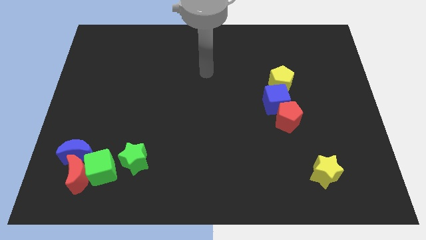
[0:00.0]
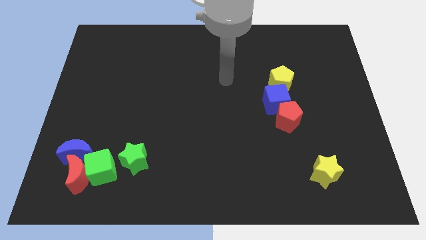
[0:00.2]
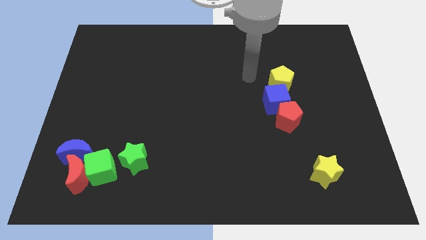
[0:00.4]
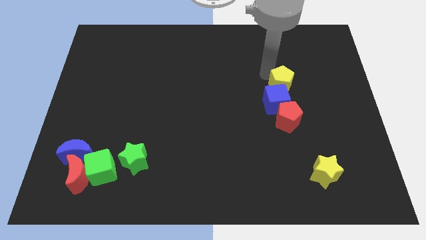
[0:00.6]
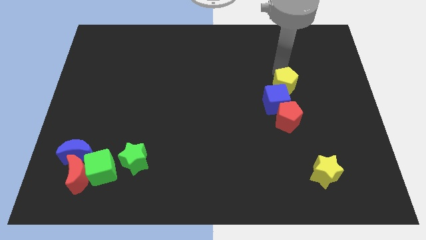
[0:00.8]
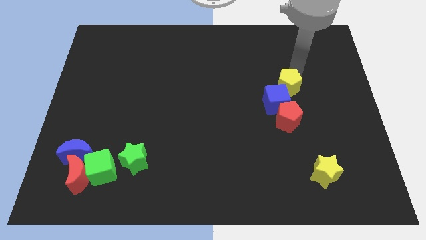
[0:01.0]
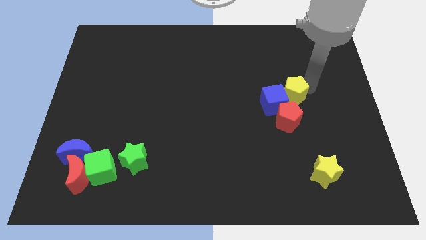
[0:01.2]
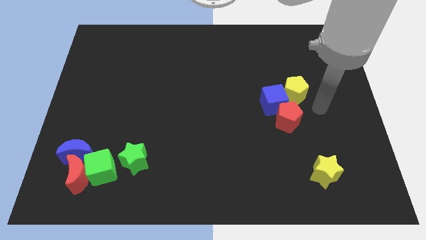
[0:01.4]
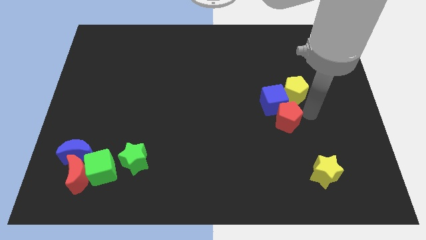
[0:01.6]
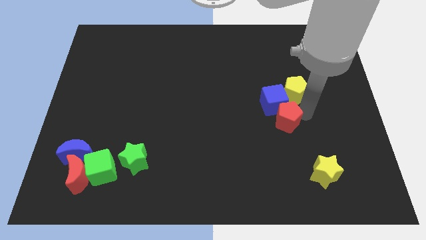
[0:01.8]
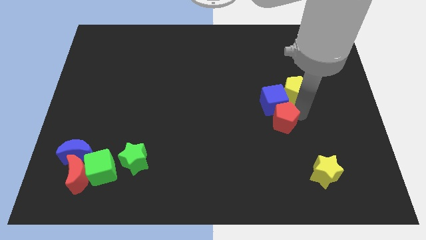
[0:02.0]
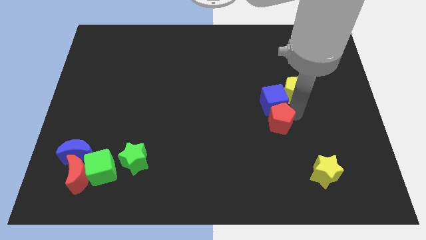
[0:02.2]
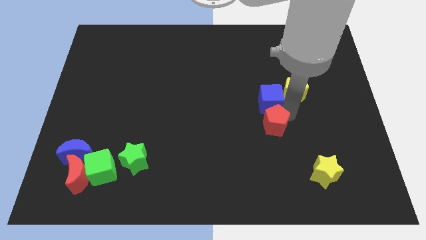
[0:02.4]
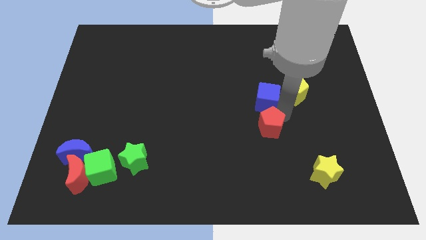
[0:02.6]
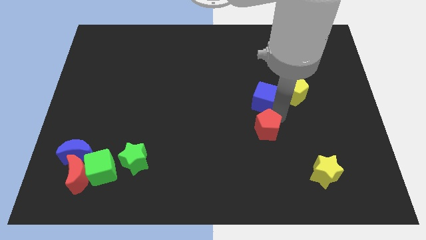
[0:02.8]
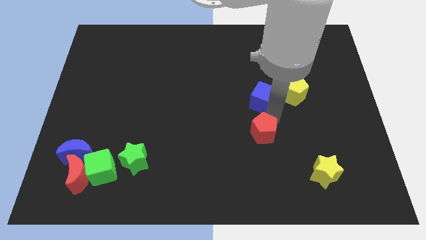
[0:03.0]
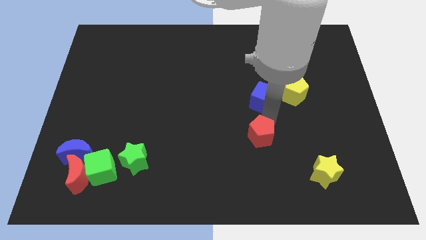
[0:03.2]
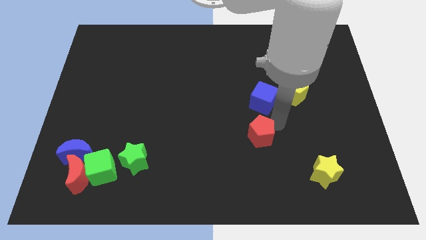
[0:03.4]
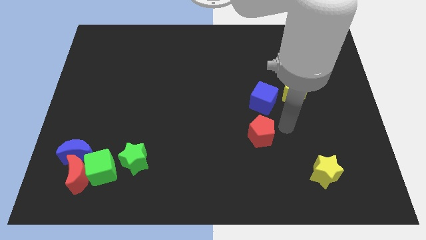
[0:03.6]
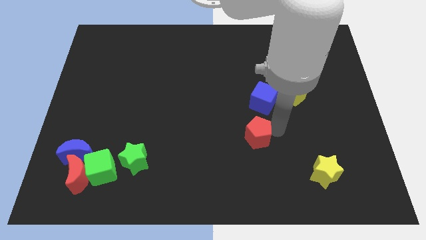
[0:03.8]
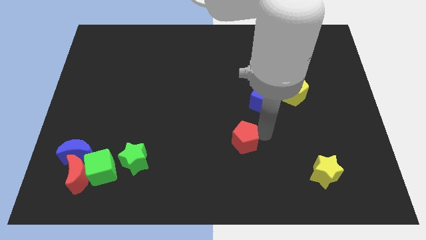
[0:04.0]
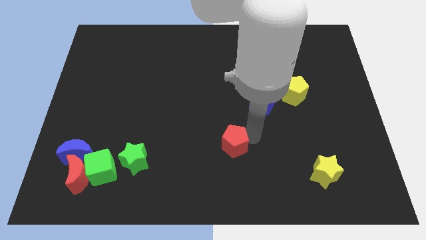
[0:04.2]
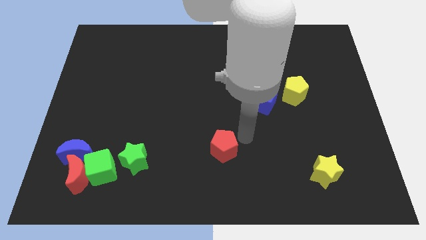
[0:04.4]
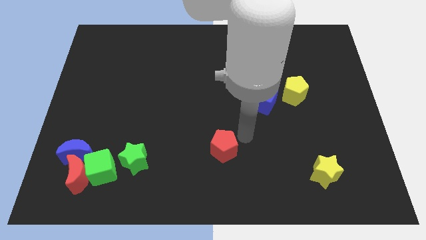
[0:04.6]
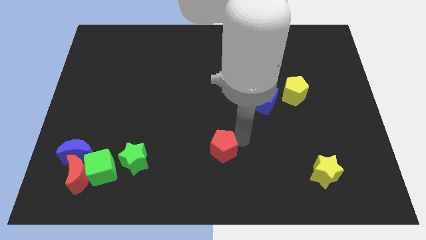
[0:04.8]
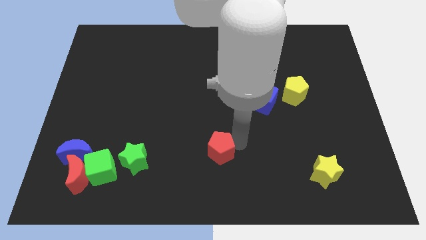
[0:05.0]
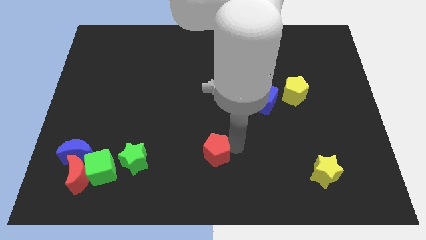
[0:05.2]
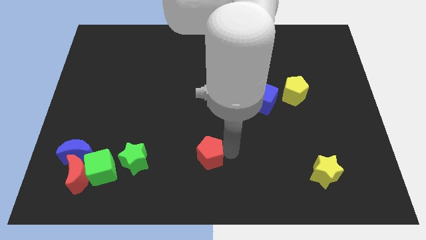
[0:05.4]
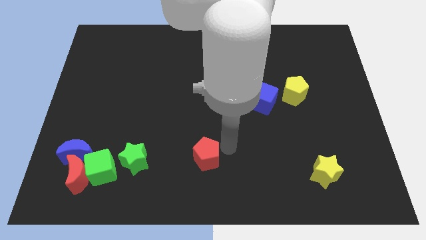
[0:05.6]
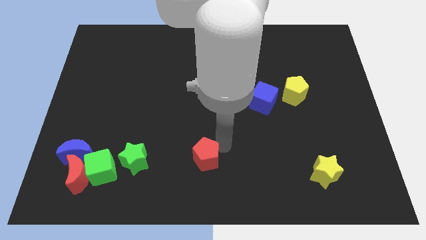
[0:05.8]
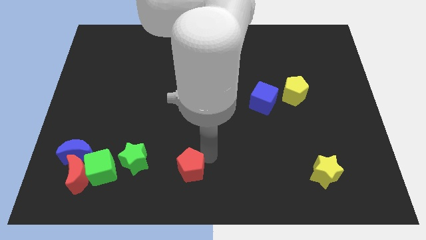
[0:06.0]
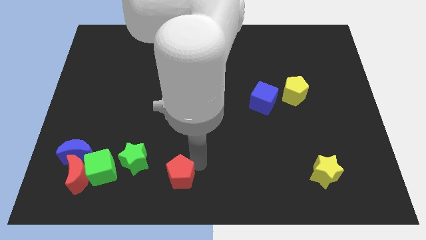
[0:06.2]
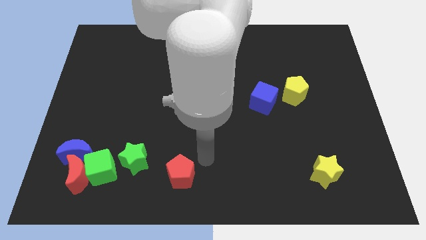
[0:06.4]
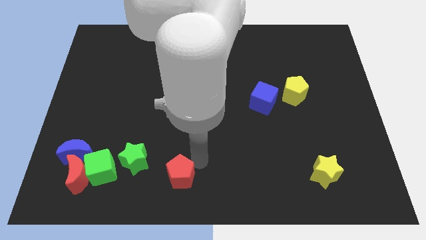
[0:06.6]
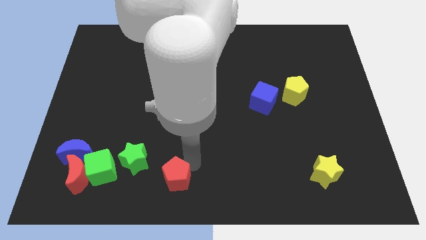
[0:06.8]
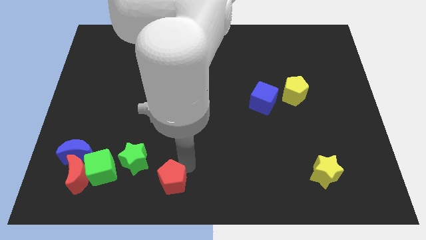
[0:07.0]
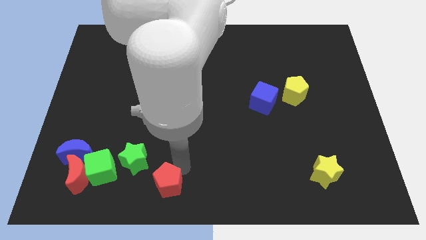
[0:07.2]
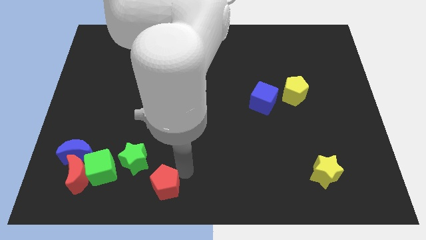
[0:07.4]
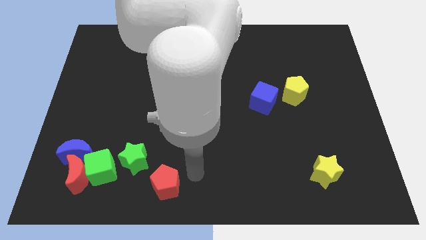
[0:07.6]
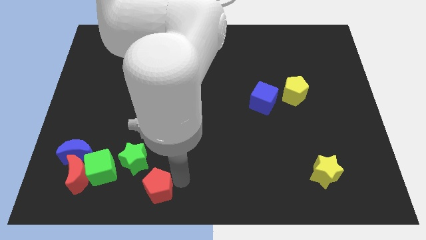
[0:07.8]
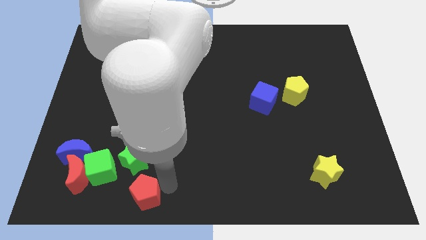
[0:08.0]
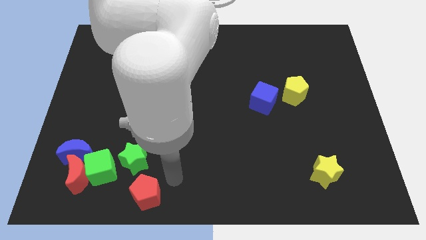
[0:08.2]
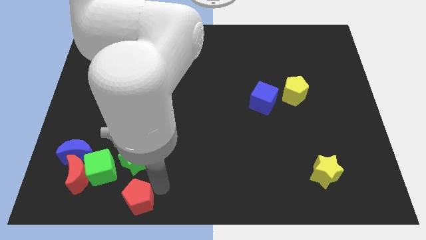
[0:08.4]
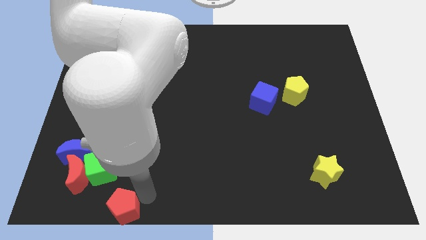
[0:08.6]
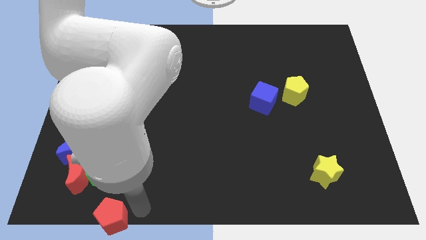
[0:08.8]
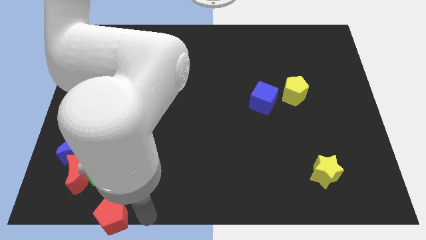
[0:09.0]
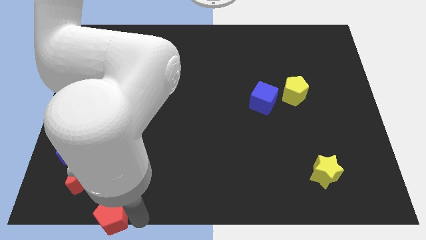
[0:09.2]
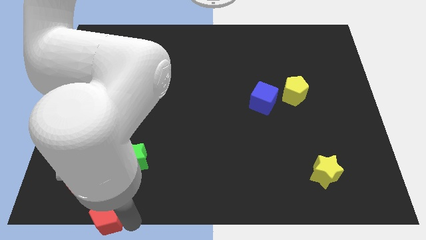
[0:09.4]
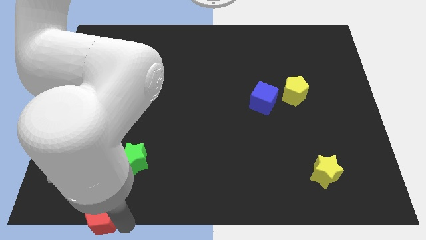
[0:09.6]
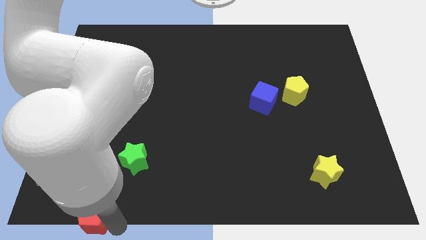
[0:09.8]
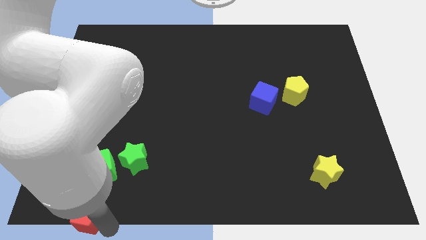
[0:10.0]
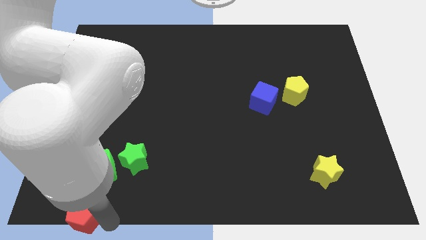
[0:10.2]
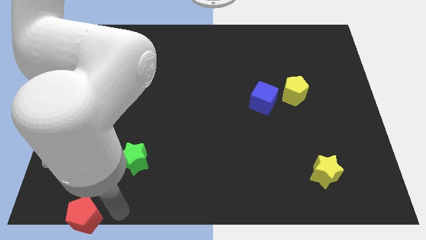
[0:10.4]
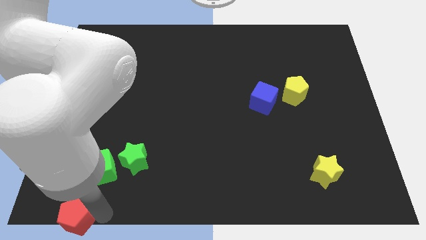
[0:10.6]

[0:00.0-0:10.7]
move the red pentagon to the bottom left of the board

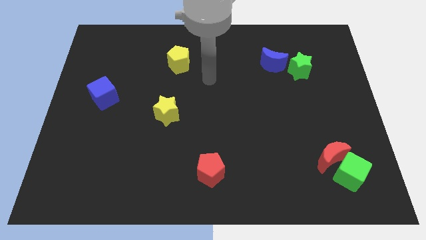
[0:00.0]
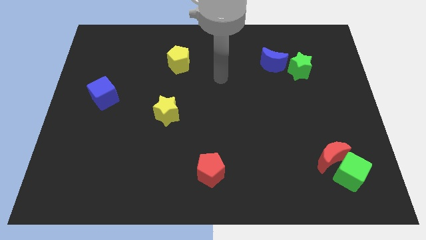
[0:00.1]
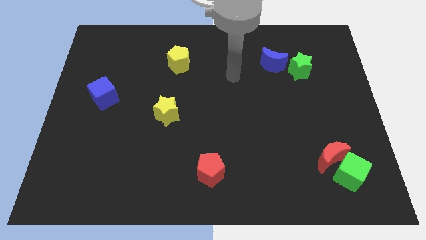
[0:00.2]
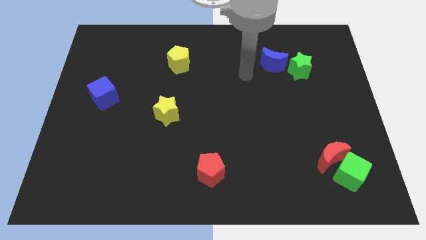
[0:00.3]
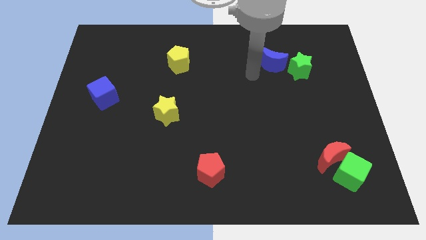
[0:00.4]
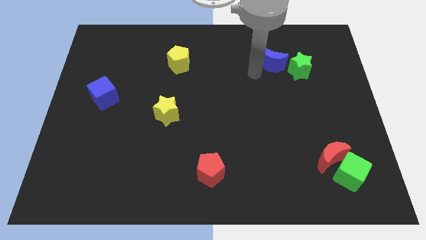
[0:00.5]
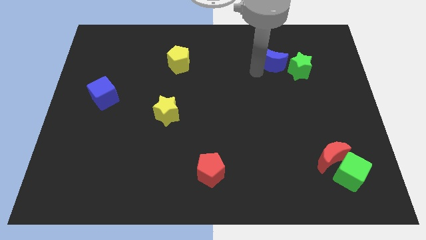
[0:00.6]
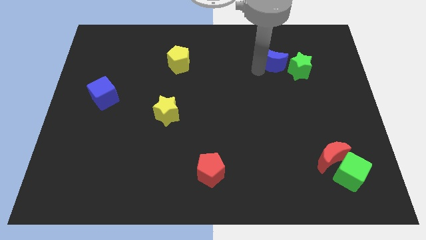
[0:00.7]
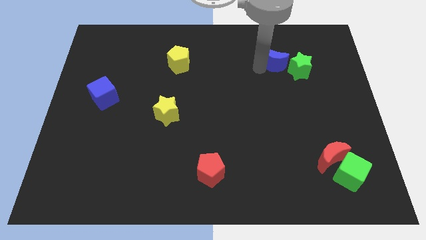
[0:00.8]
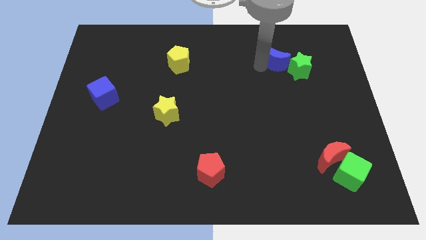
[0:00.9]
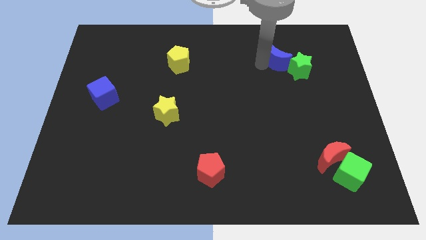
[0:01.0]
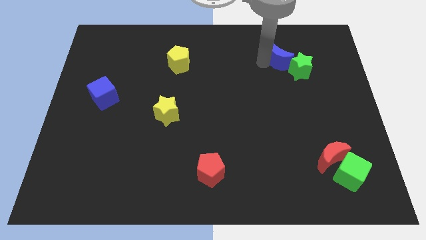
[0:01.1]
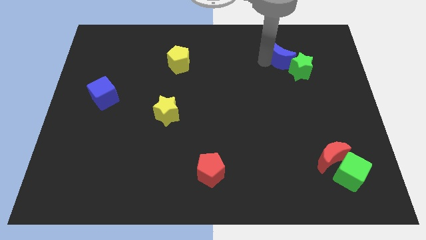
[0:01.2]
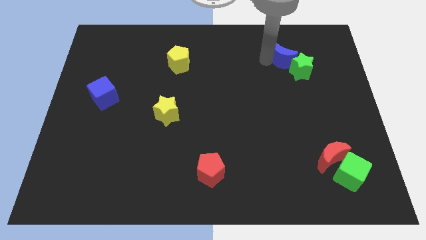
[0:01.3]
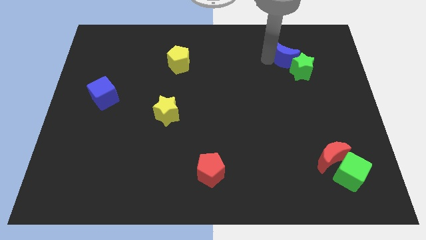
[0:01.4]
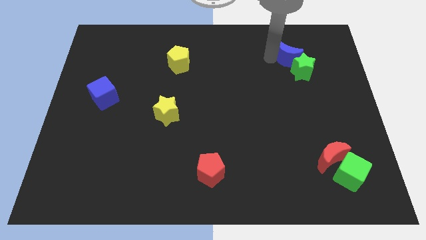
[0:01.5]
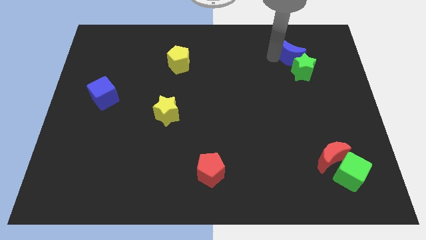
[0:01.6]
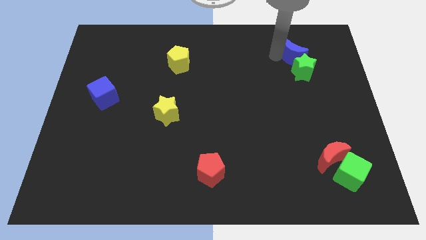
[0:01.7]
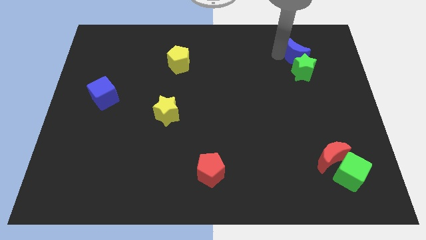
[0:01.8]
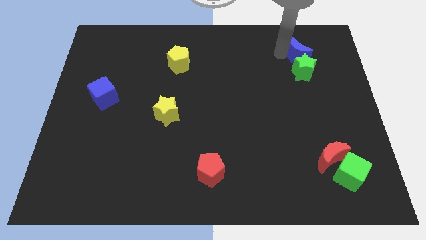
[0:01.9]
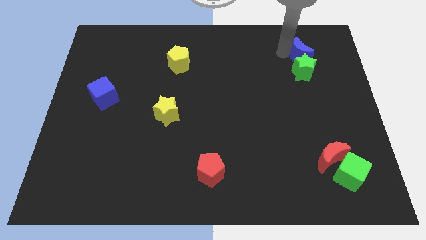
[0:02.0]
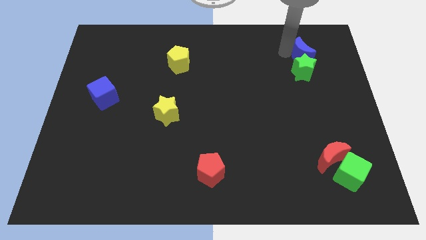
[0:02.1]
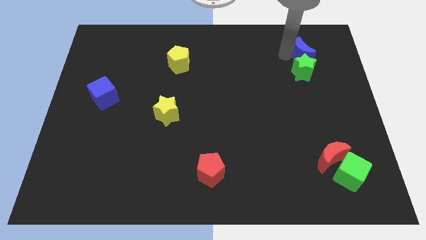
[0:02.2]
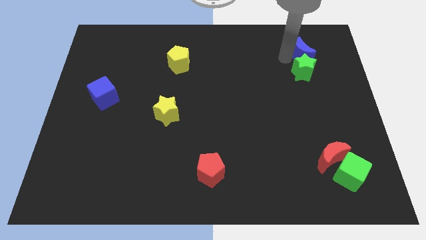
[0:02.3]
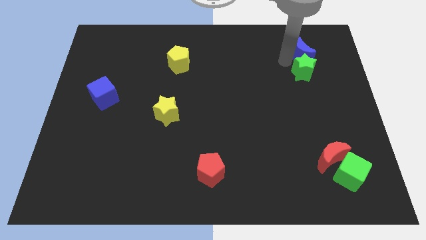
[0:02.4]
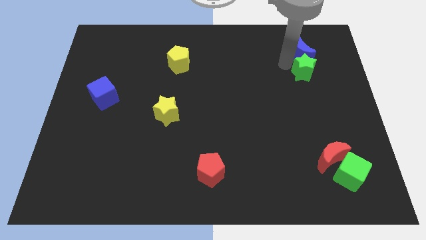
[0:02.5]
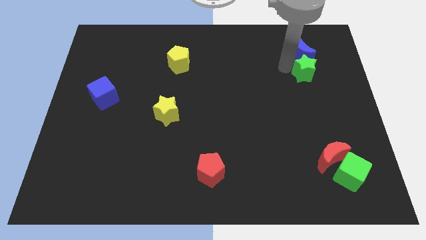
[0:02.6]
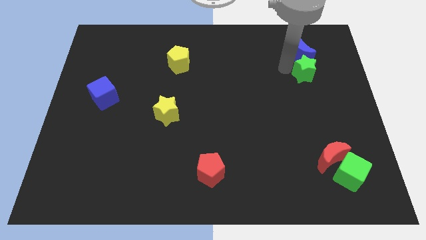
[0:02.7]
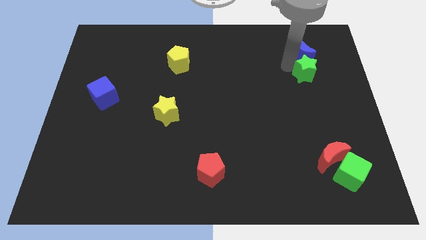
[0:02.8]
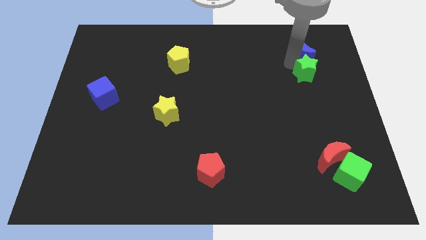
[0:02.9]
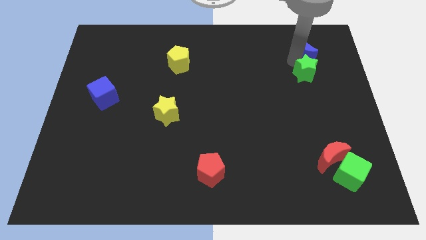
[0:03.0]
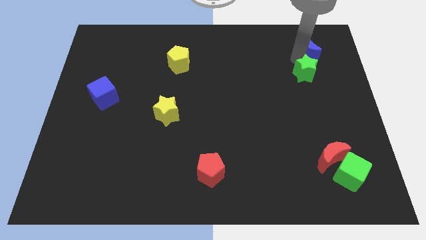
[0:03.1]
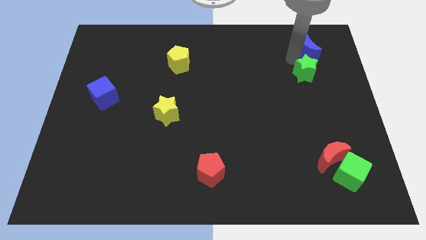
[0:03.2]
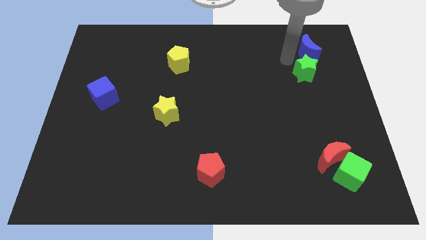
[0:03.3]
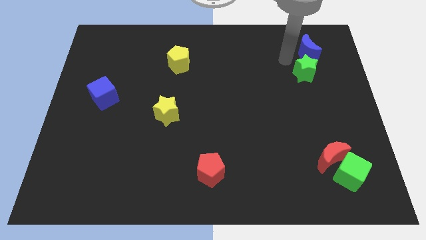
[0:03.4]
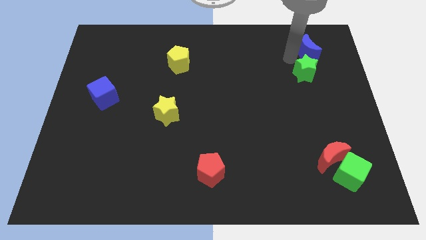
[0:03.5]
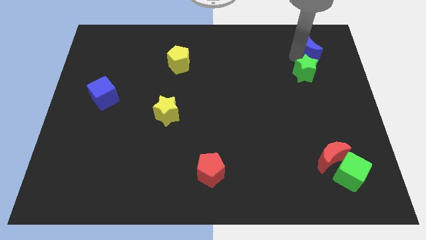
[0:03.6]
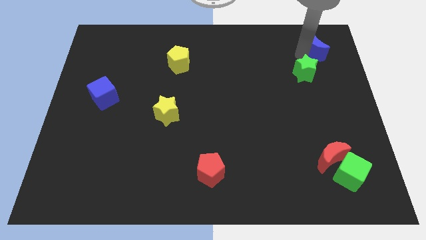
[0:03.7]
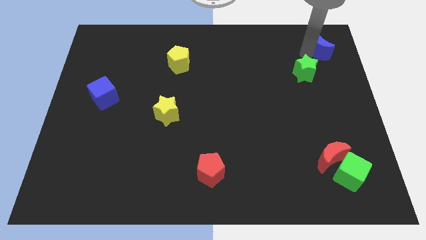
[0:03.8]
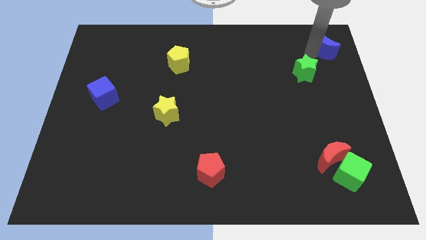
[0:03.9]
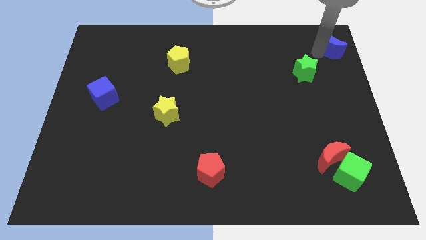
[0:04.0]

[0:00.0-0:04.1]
push the blue moon to the top right corner
